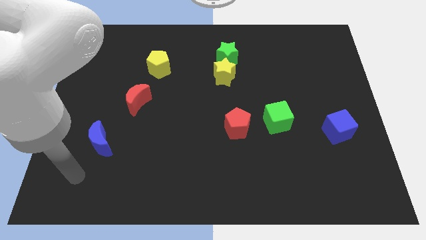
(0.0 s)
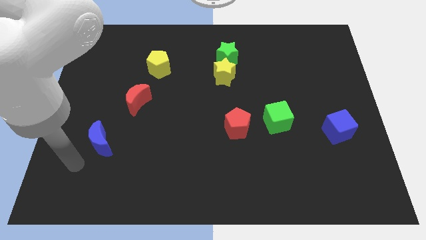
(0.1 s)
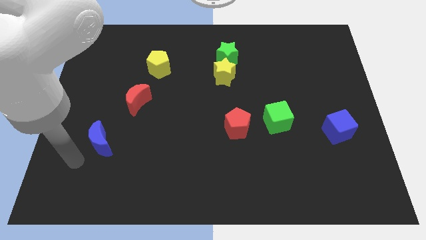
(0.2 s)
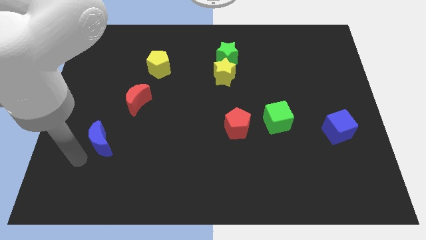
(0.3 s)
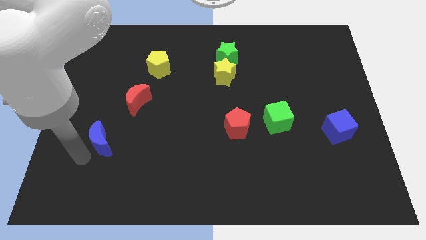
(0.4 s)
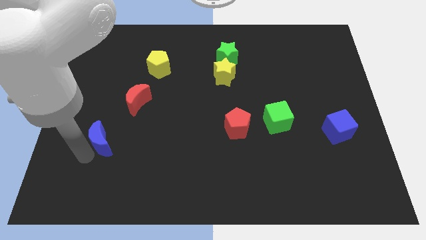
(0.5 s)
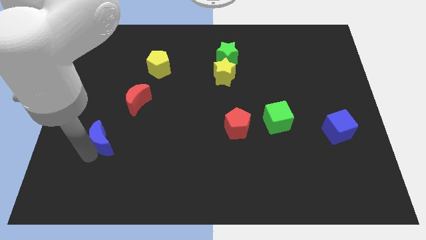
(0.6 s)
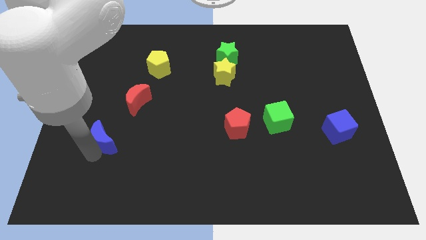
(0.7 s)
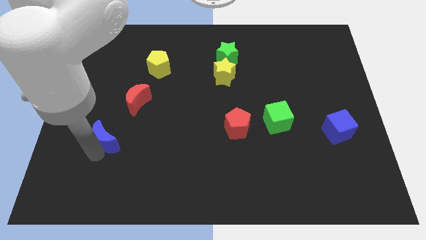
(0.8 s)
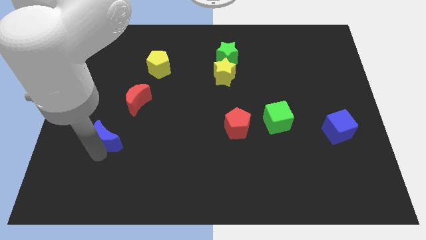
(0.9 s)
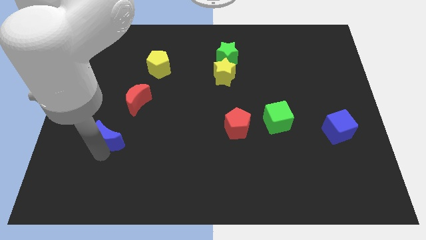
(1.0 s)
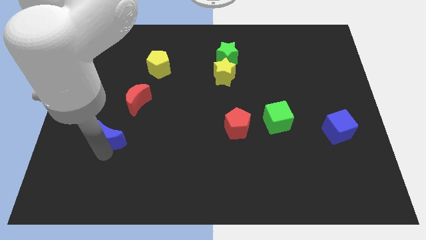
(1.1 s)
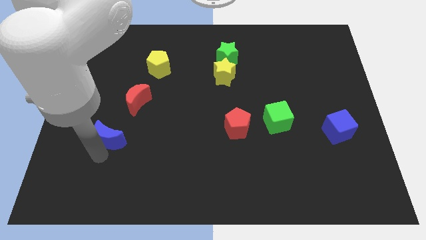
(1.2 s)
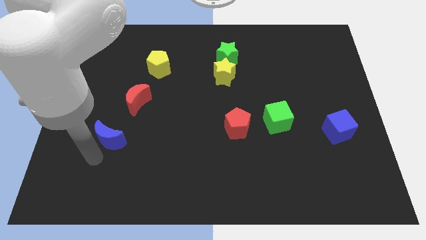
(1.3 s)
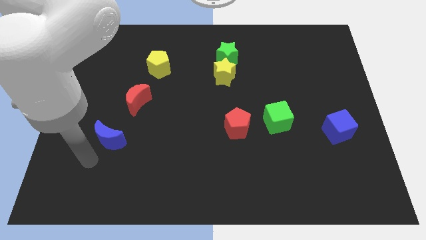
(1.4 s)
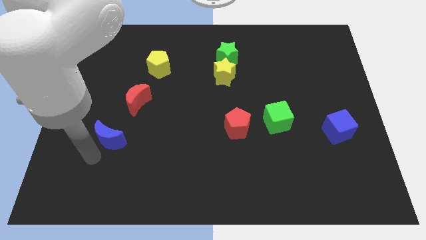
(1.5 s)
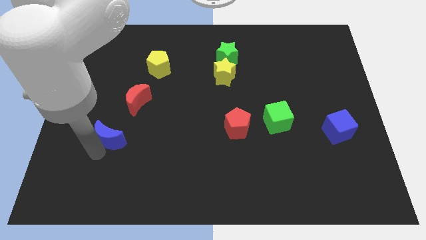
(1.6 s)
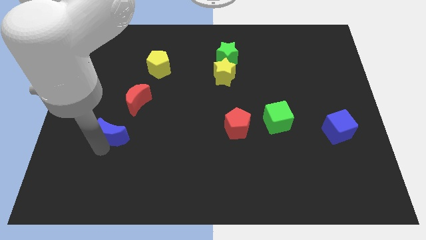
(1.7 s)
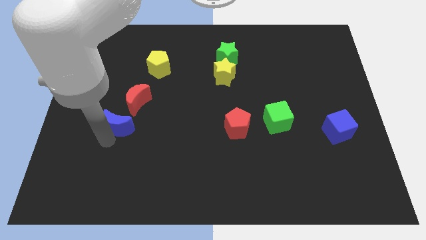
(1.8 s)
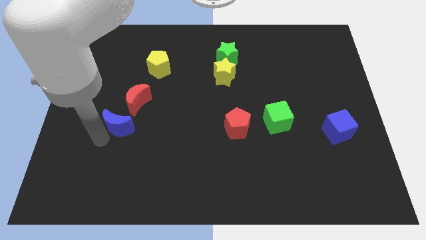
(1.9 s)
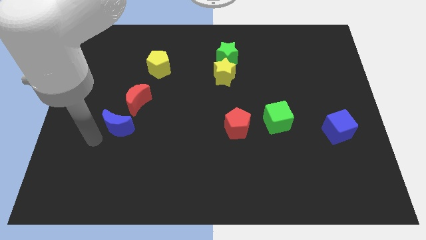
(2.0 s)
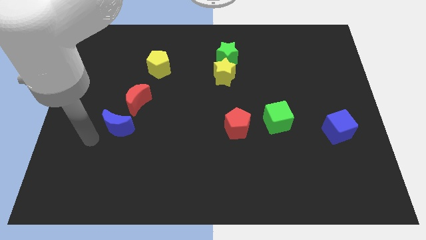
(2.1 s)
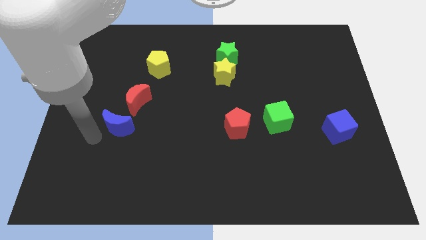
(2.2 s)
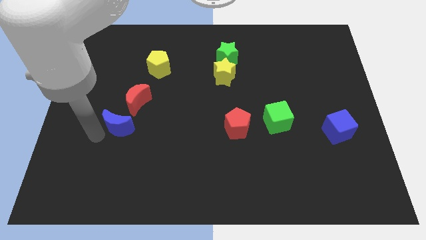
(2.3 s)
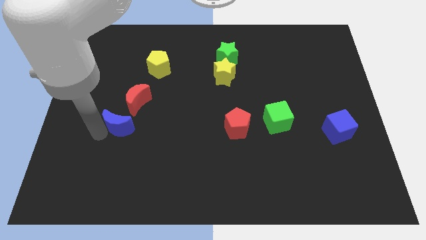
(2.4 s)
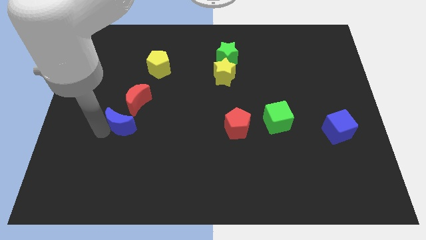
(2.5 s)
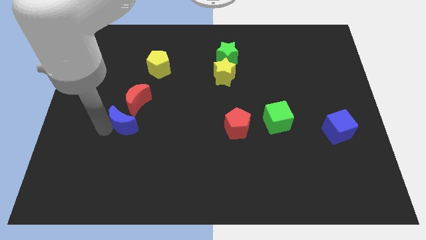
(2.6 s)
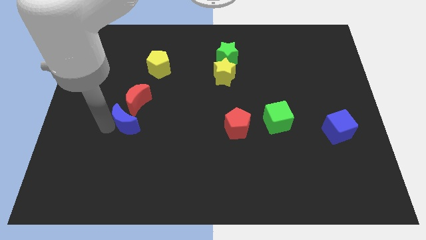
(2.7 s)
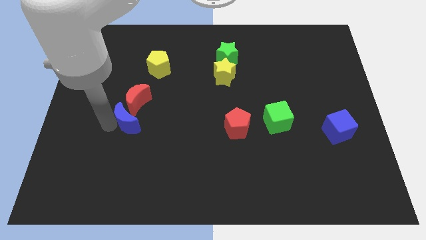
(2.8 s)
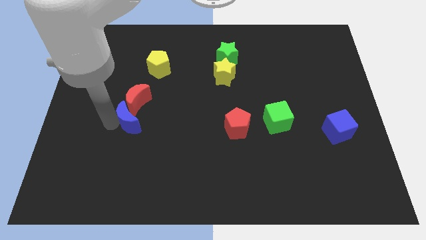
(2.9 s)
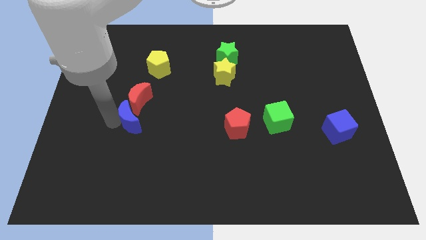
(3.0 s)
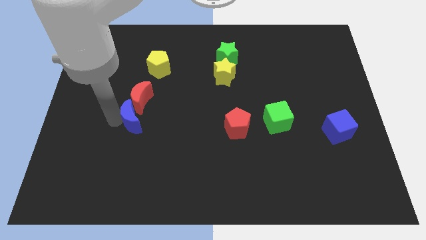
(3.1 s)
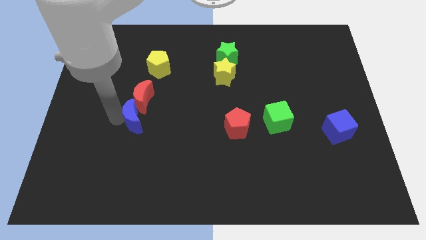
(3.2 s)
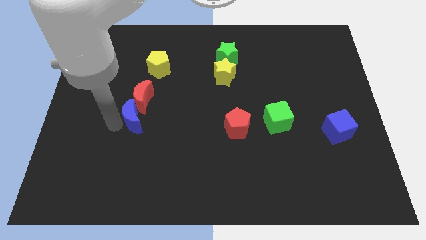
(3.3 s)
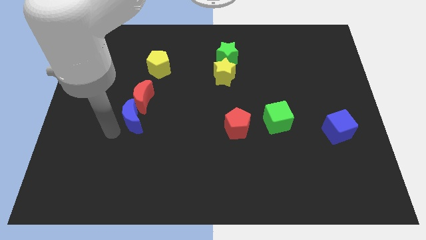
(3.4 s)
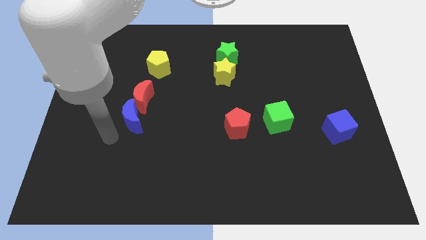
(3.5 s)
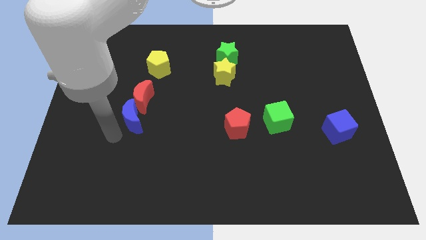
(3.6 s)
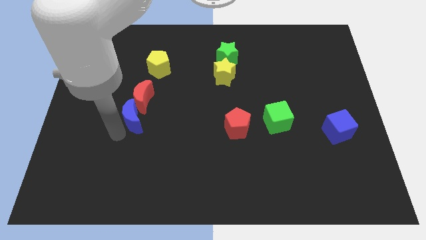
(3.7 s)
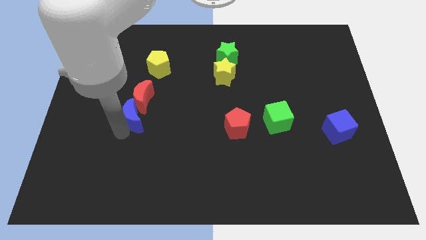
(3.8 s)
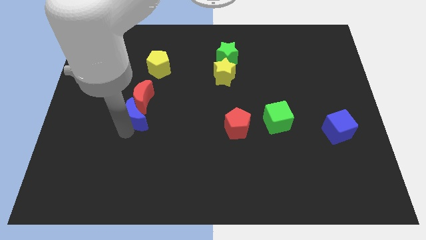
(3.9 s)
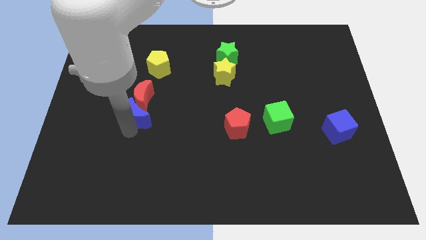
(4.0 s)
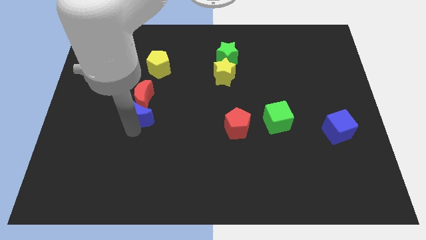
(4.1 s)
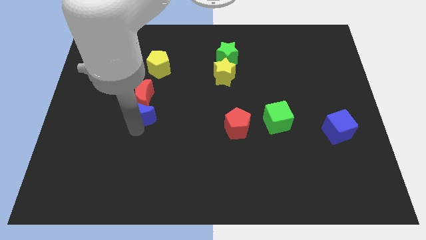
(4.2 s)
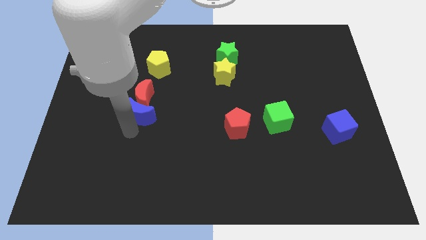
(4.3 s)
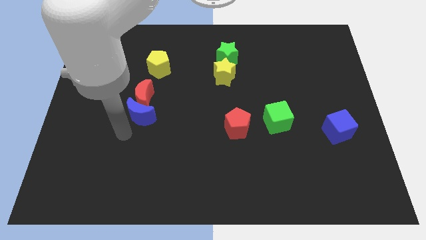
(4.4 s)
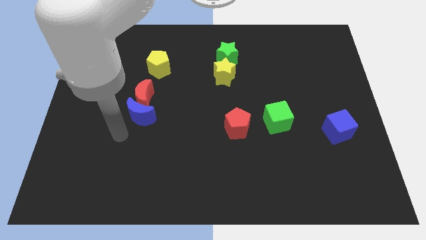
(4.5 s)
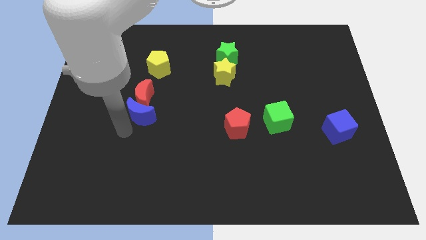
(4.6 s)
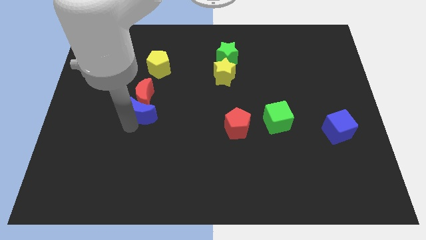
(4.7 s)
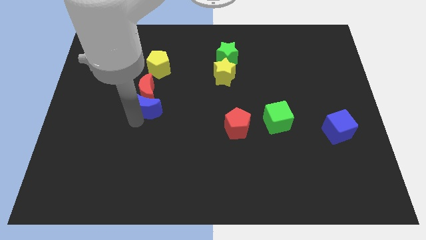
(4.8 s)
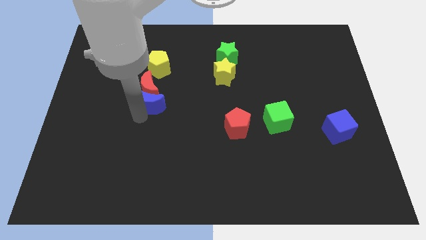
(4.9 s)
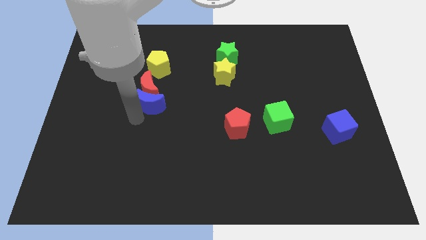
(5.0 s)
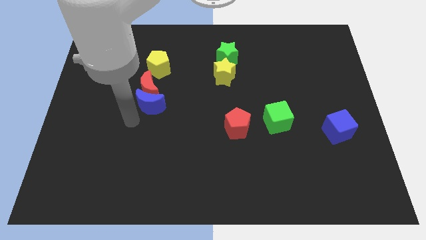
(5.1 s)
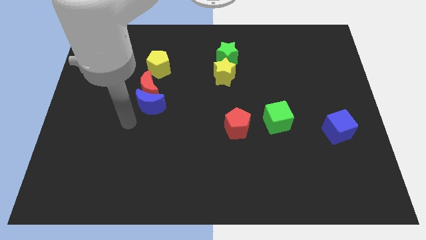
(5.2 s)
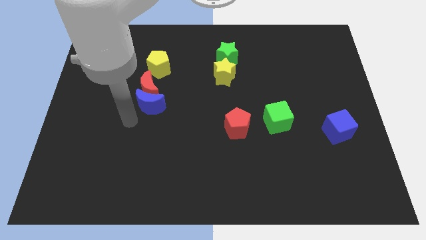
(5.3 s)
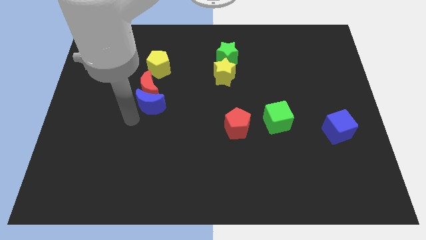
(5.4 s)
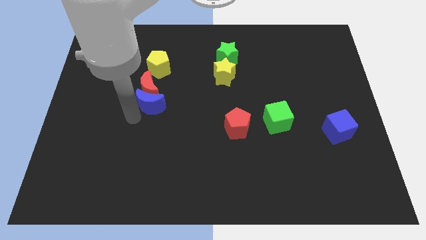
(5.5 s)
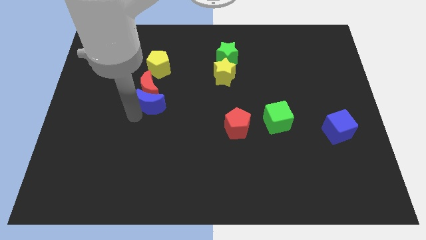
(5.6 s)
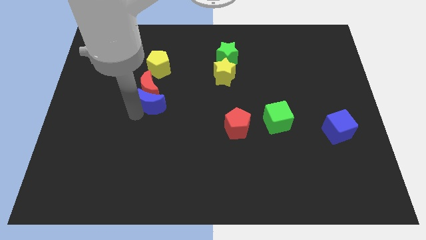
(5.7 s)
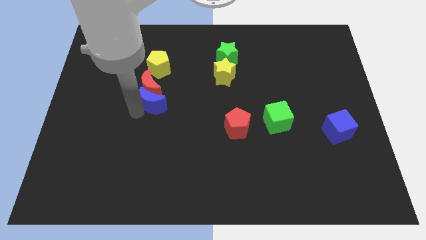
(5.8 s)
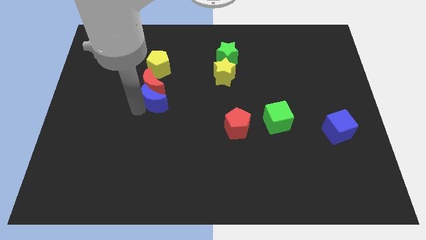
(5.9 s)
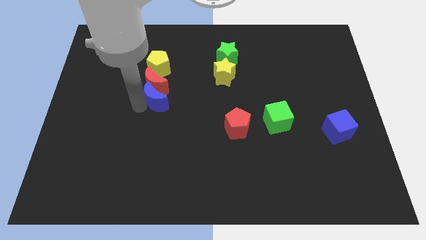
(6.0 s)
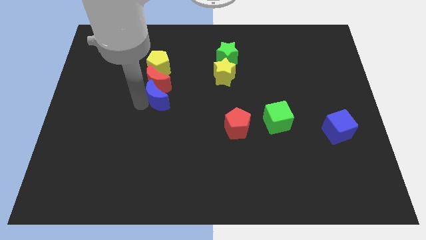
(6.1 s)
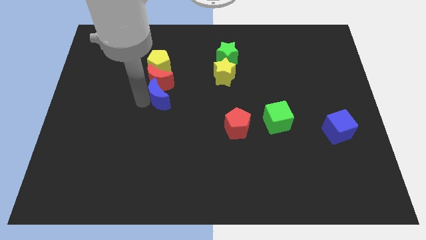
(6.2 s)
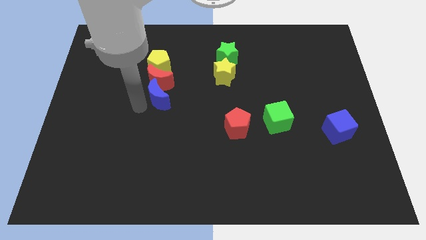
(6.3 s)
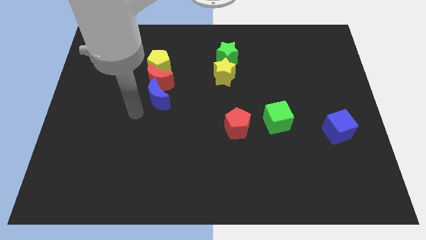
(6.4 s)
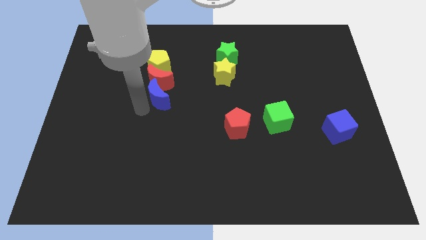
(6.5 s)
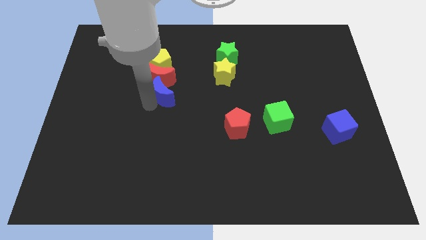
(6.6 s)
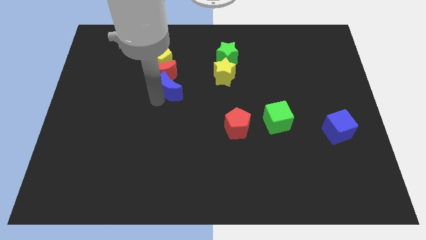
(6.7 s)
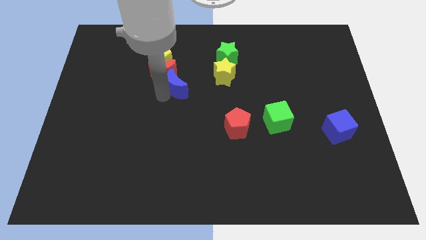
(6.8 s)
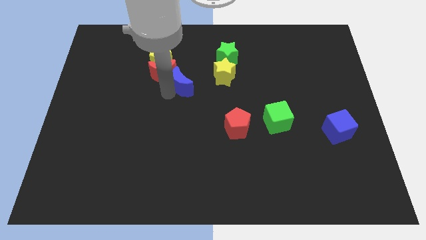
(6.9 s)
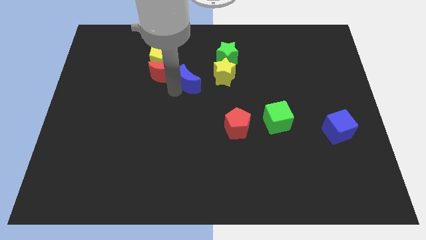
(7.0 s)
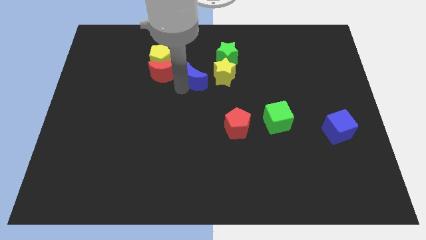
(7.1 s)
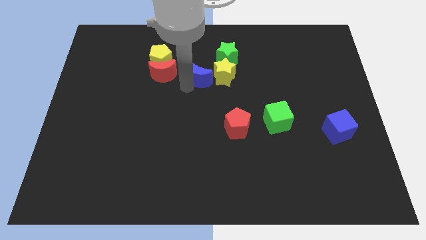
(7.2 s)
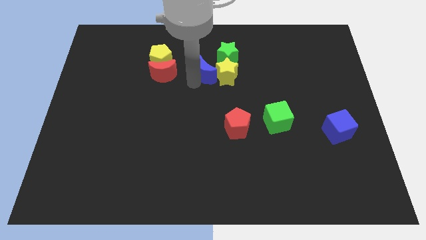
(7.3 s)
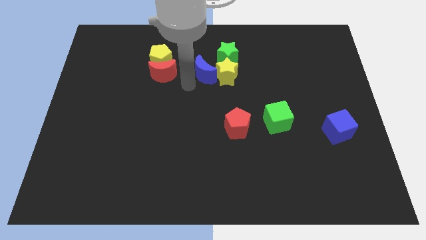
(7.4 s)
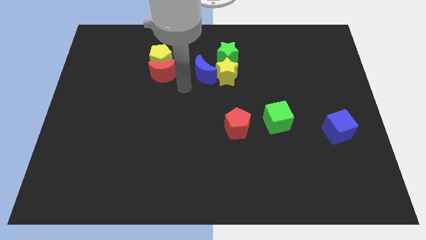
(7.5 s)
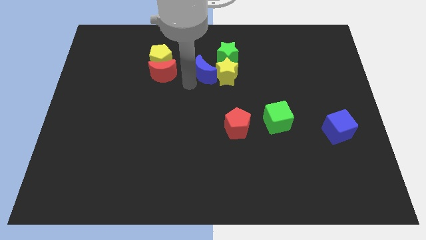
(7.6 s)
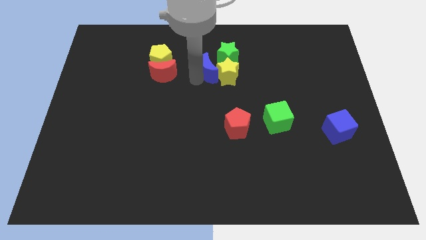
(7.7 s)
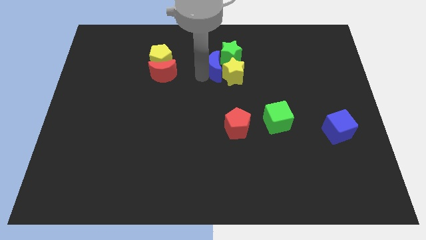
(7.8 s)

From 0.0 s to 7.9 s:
put the blue moon to the green star
